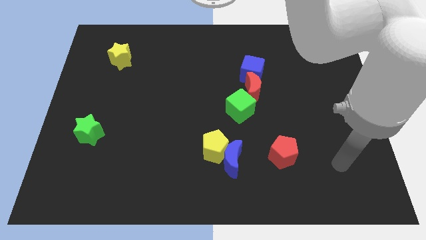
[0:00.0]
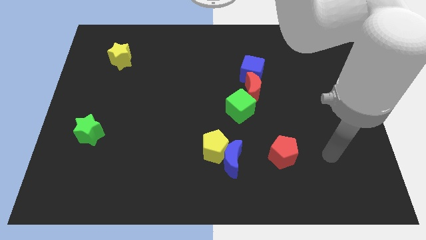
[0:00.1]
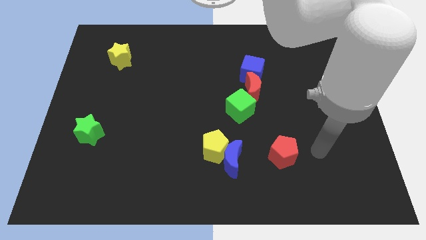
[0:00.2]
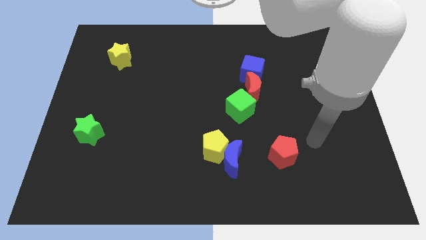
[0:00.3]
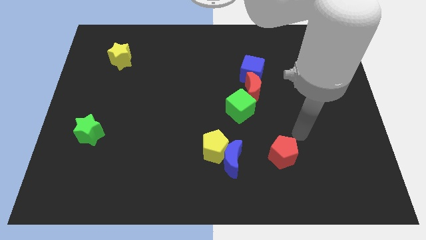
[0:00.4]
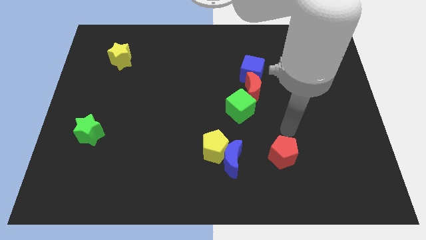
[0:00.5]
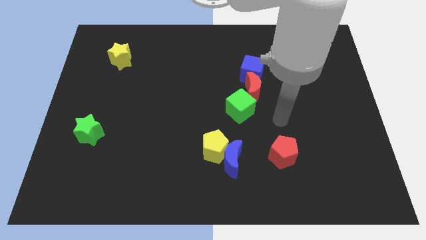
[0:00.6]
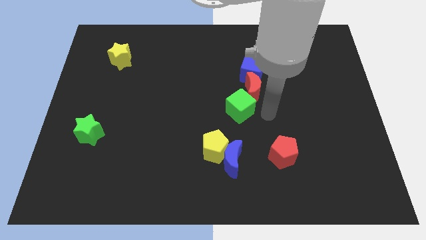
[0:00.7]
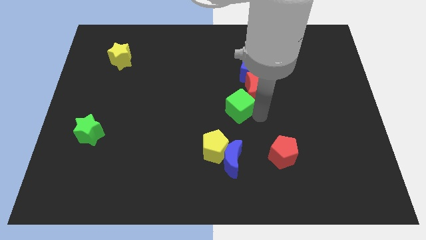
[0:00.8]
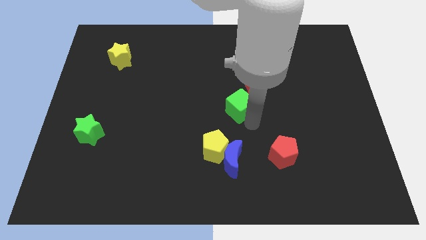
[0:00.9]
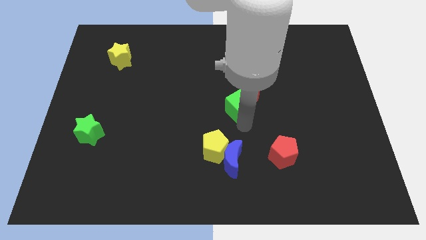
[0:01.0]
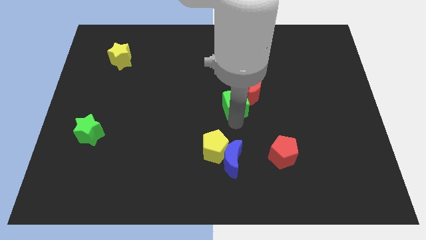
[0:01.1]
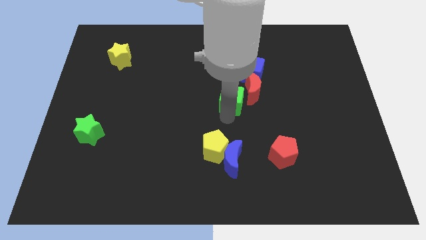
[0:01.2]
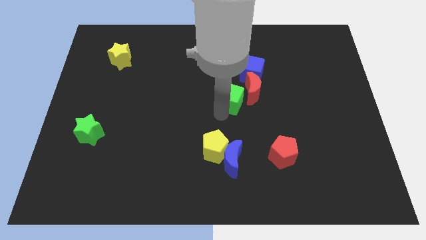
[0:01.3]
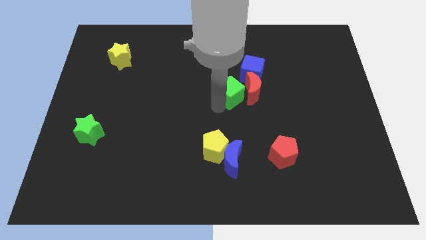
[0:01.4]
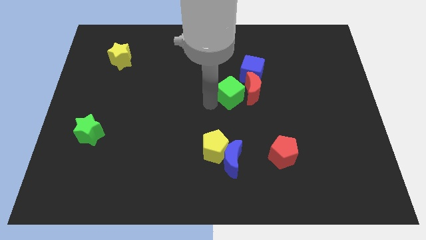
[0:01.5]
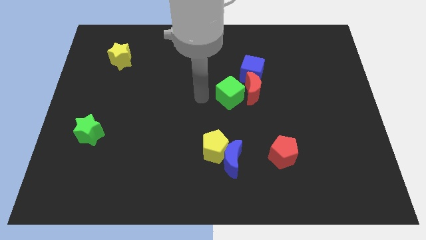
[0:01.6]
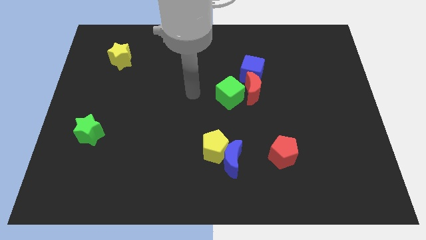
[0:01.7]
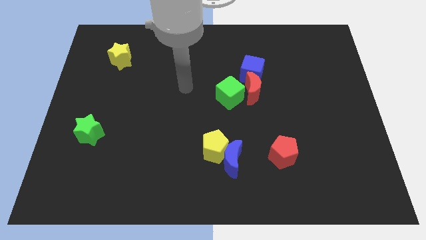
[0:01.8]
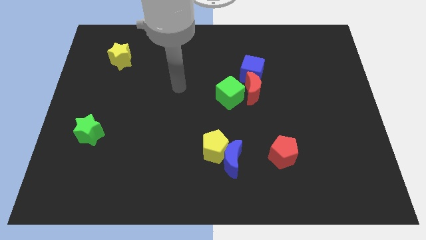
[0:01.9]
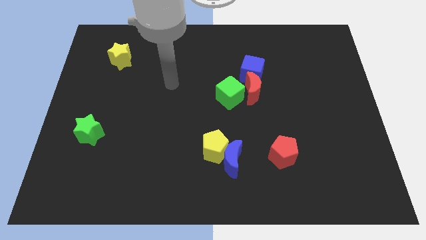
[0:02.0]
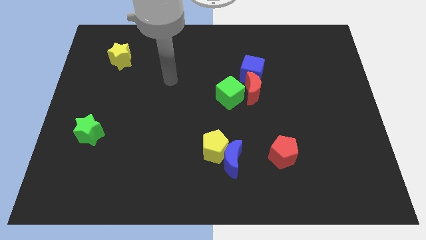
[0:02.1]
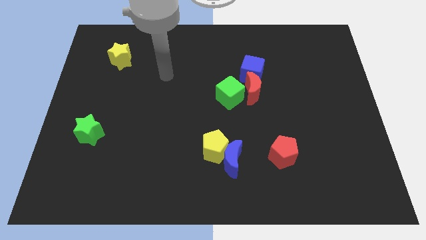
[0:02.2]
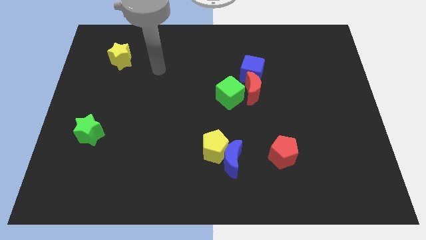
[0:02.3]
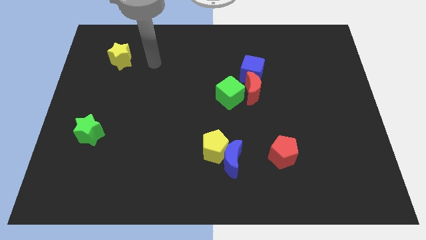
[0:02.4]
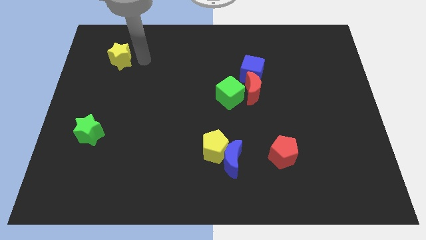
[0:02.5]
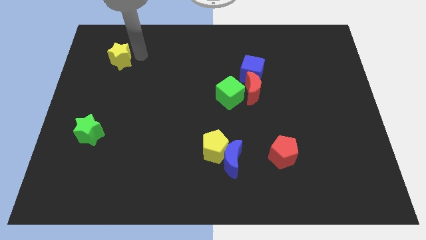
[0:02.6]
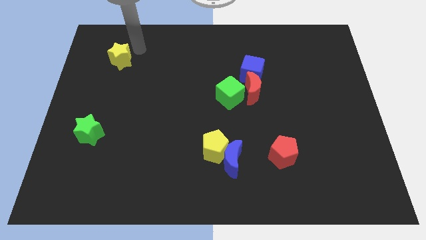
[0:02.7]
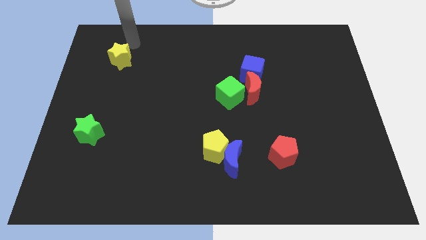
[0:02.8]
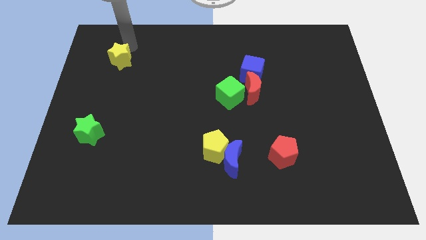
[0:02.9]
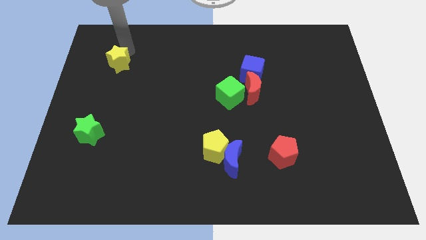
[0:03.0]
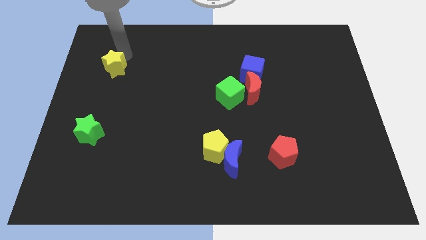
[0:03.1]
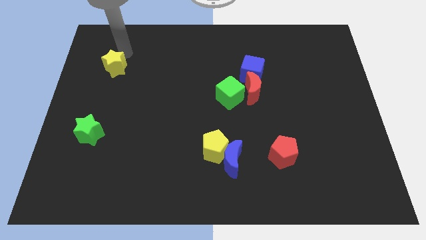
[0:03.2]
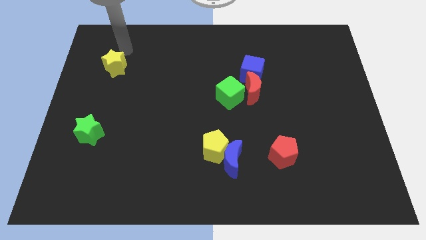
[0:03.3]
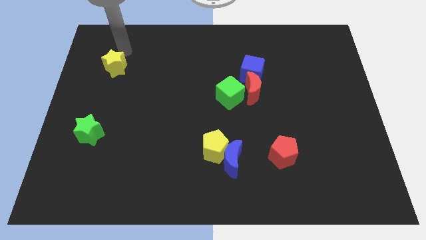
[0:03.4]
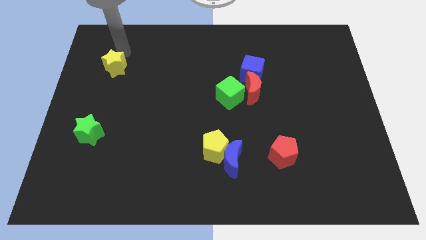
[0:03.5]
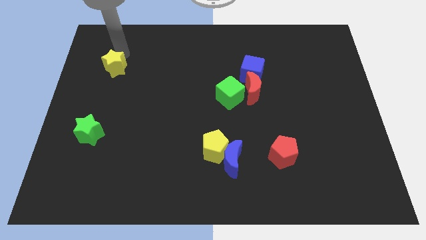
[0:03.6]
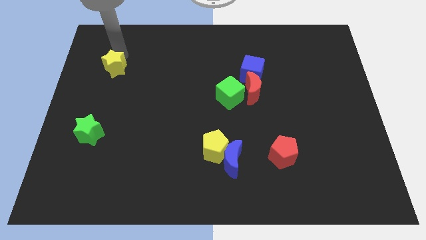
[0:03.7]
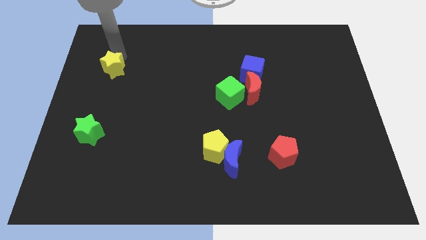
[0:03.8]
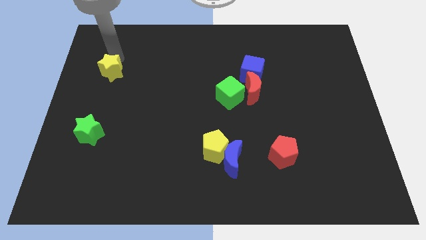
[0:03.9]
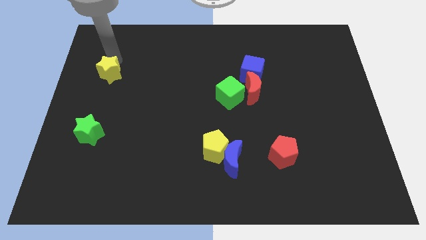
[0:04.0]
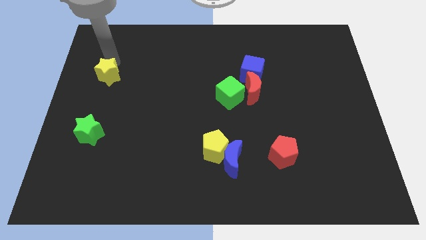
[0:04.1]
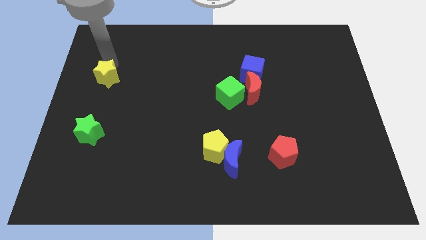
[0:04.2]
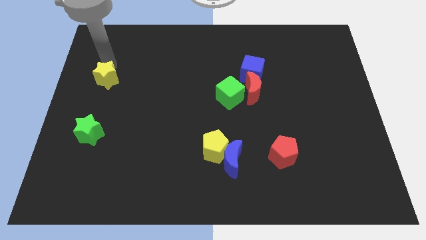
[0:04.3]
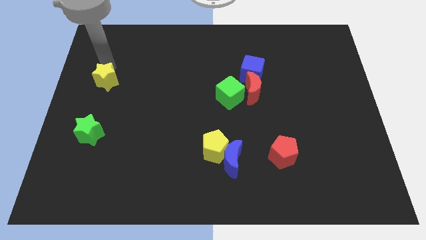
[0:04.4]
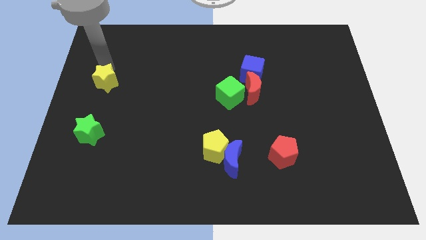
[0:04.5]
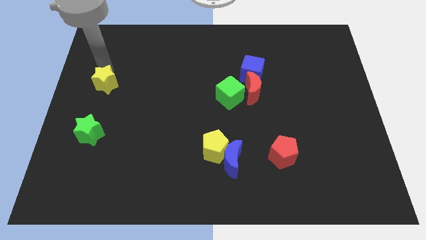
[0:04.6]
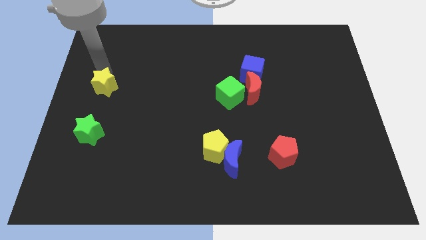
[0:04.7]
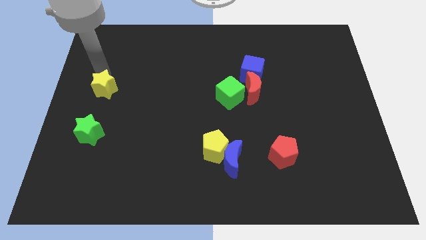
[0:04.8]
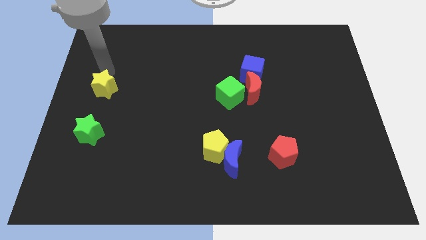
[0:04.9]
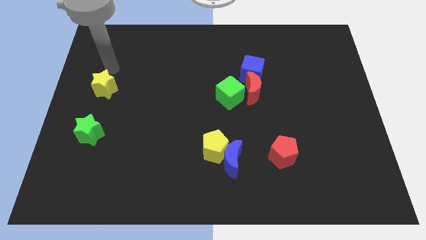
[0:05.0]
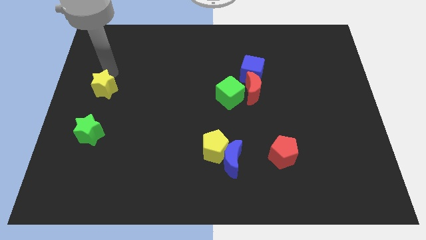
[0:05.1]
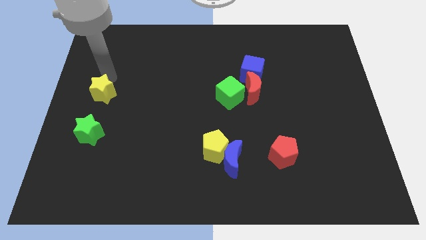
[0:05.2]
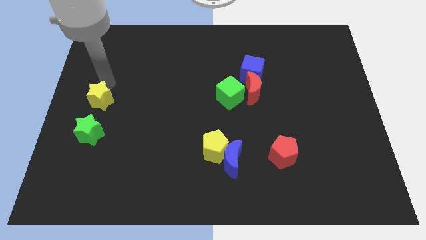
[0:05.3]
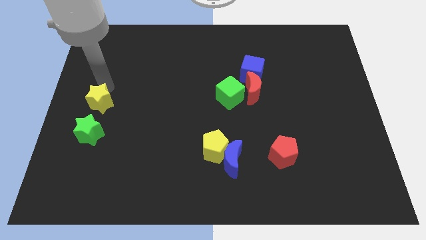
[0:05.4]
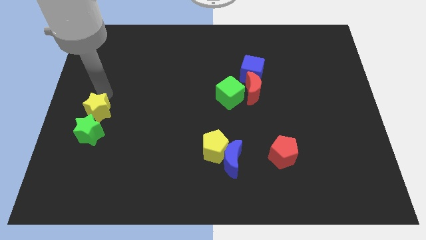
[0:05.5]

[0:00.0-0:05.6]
put the yellow star towards the green star

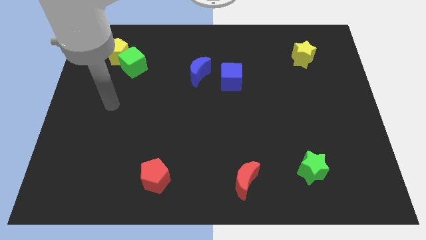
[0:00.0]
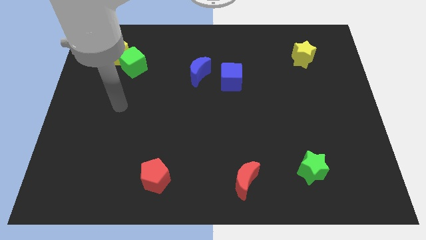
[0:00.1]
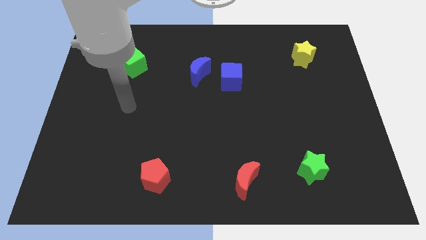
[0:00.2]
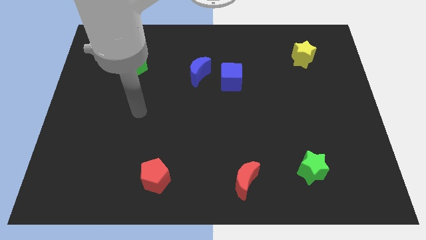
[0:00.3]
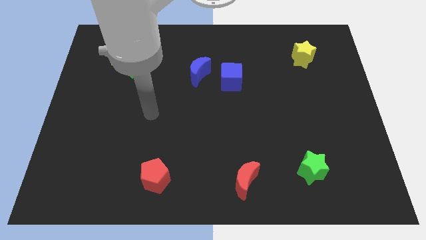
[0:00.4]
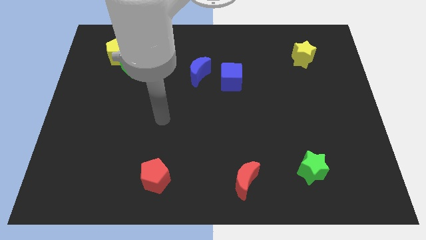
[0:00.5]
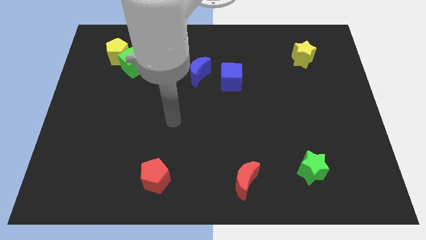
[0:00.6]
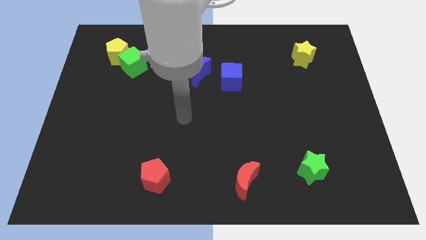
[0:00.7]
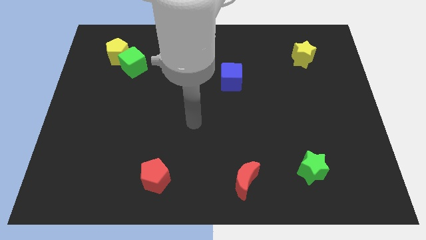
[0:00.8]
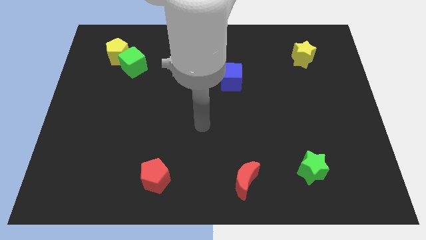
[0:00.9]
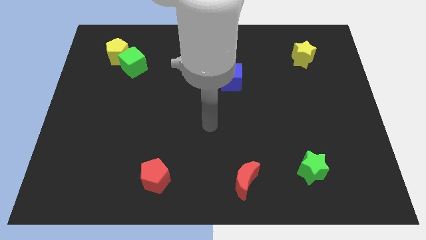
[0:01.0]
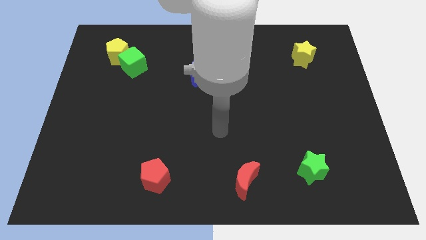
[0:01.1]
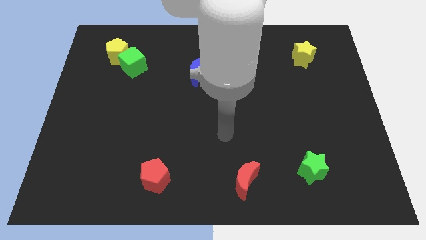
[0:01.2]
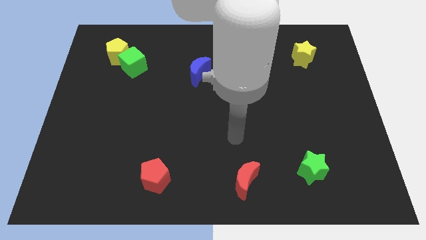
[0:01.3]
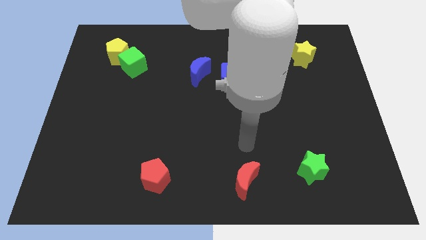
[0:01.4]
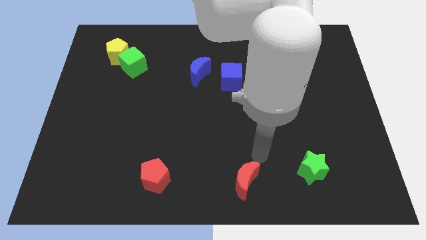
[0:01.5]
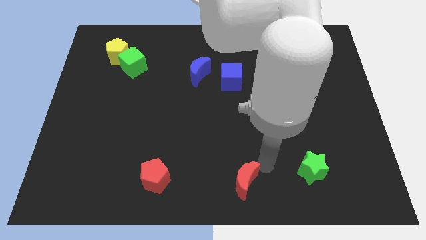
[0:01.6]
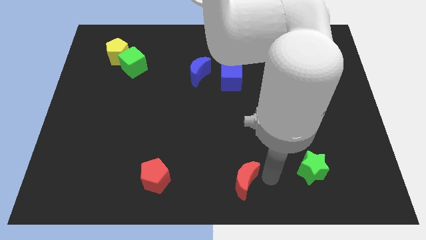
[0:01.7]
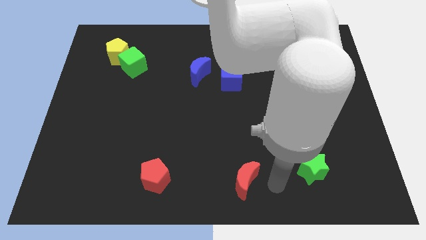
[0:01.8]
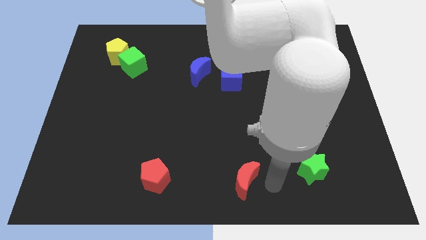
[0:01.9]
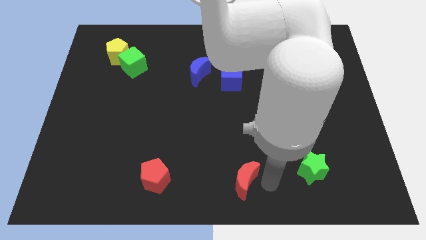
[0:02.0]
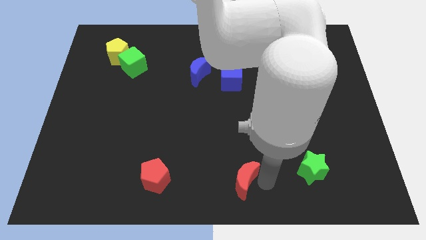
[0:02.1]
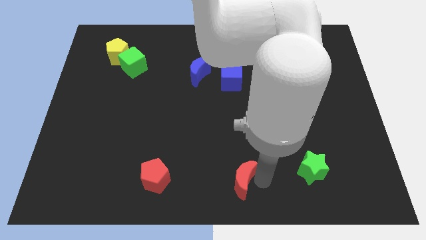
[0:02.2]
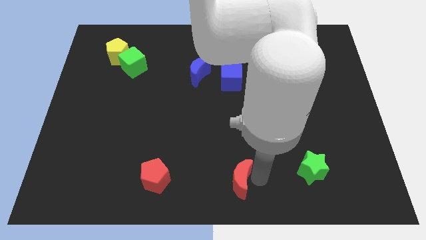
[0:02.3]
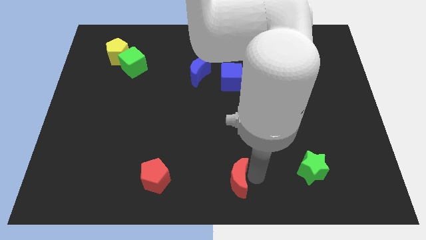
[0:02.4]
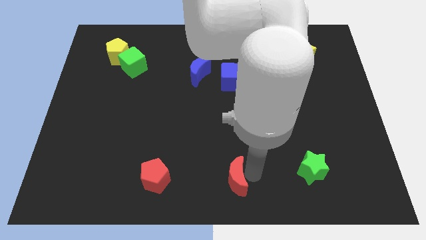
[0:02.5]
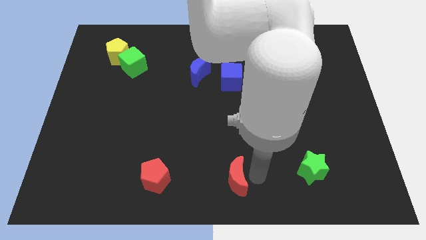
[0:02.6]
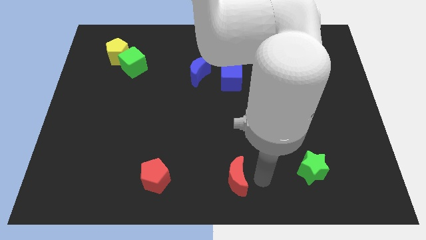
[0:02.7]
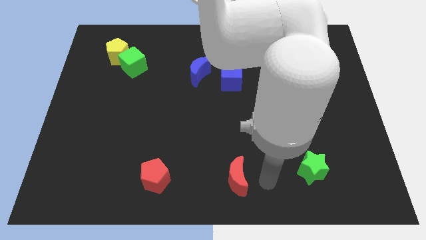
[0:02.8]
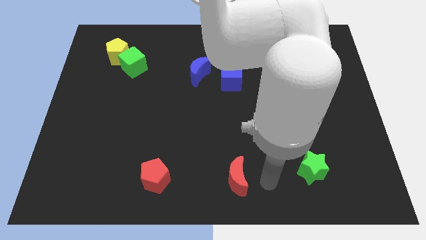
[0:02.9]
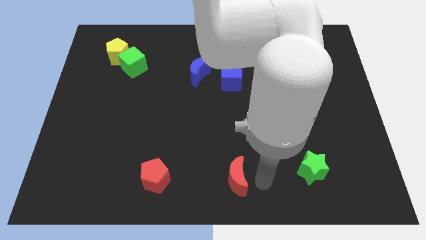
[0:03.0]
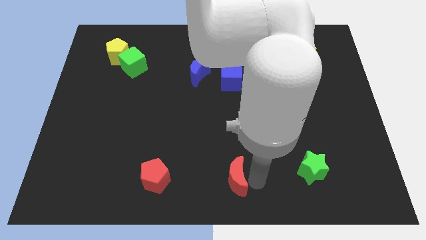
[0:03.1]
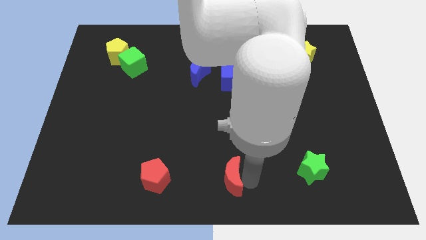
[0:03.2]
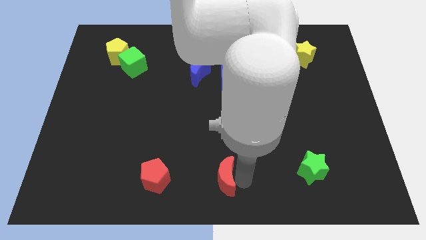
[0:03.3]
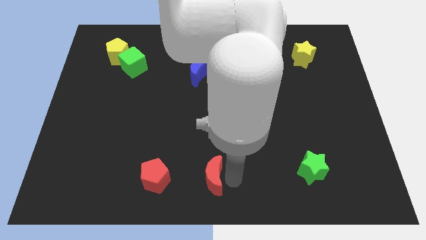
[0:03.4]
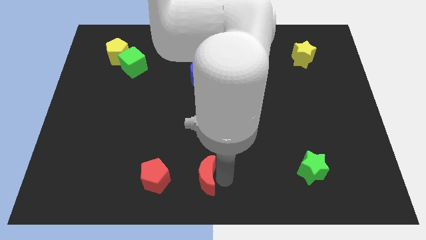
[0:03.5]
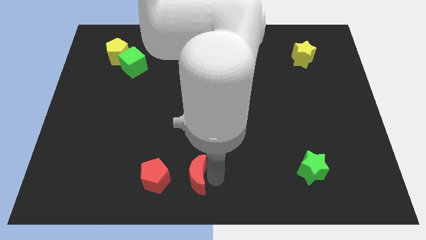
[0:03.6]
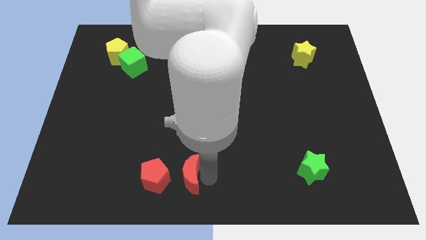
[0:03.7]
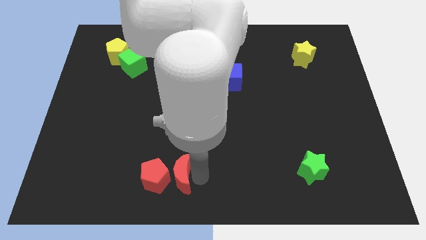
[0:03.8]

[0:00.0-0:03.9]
move the red moon to the red pentagon
